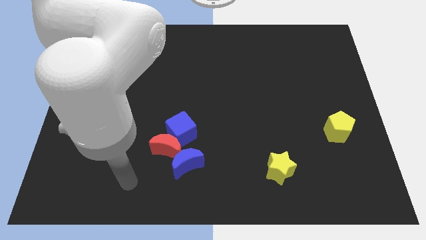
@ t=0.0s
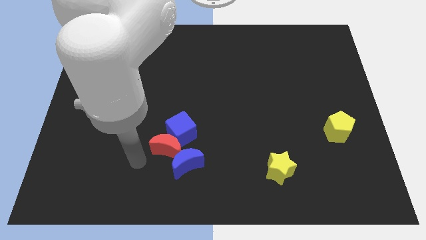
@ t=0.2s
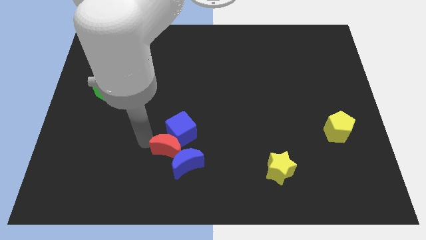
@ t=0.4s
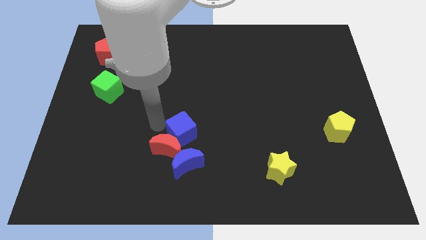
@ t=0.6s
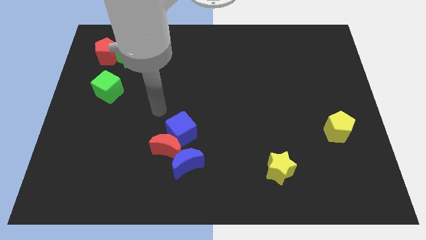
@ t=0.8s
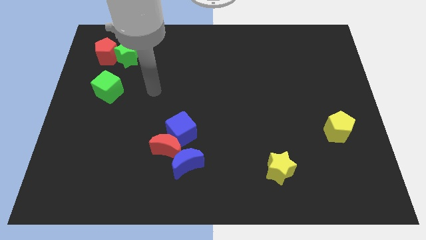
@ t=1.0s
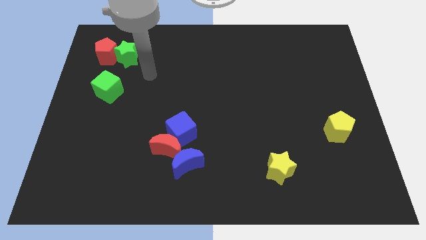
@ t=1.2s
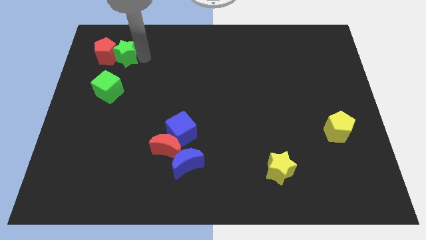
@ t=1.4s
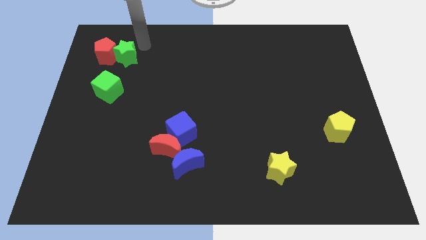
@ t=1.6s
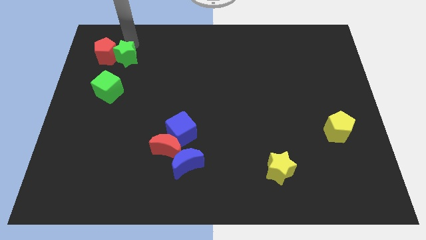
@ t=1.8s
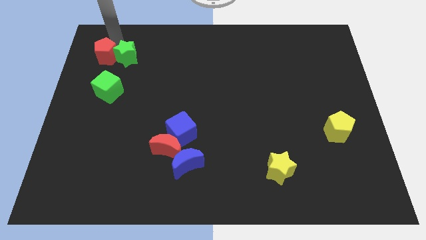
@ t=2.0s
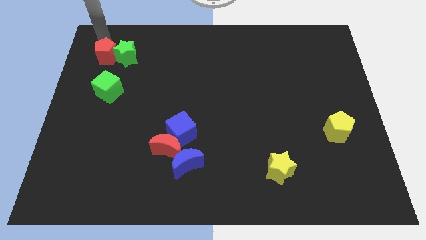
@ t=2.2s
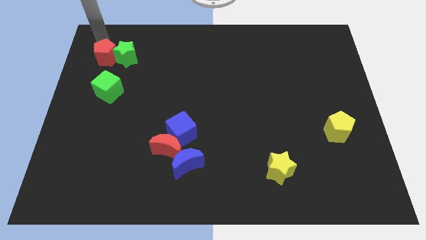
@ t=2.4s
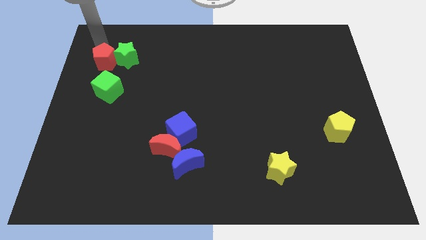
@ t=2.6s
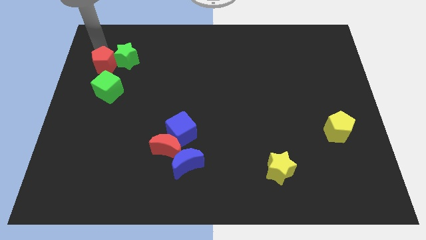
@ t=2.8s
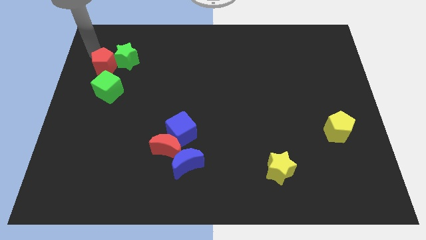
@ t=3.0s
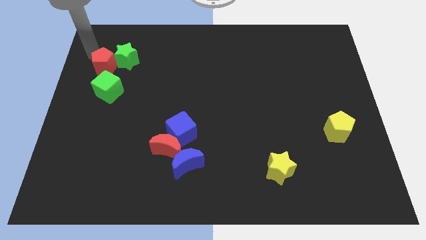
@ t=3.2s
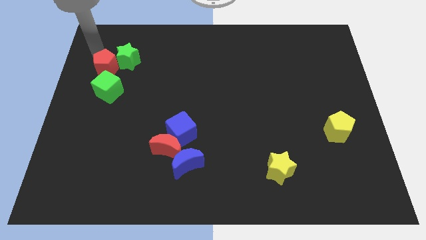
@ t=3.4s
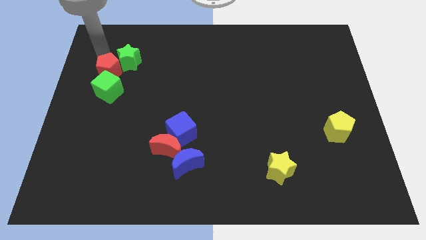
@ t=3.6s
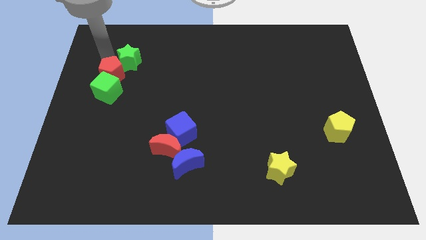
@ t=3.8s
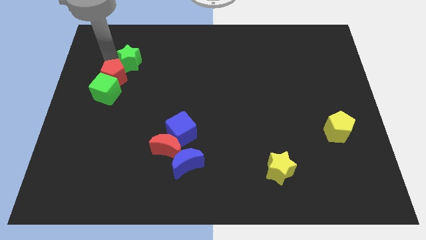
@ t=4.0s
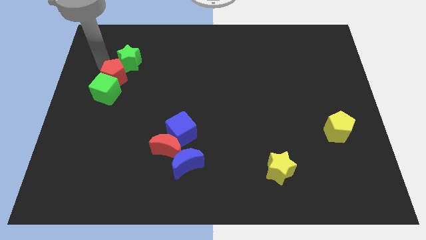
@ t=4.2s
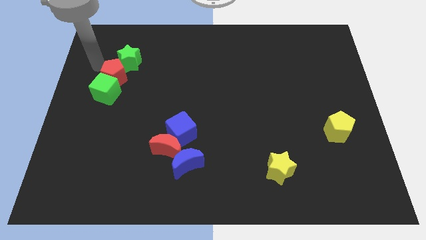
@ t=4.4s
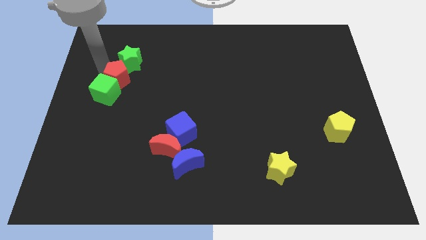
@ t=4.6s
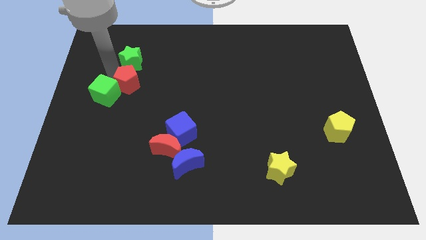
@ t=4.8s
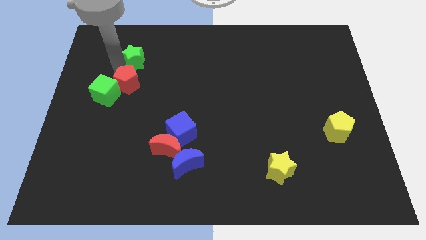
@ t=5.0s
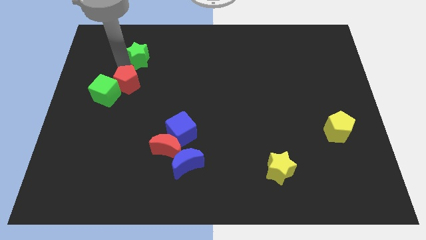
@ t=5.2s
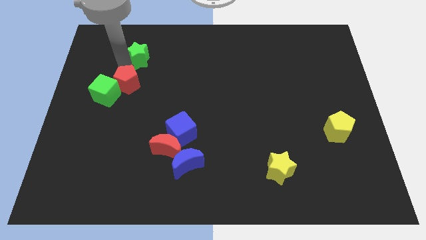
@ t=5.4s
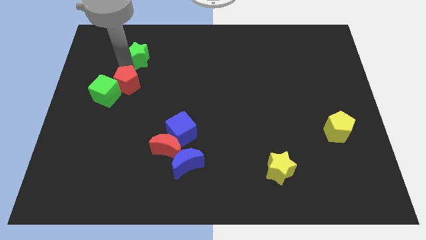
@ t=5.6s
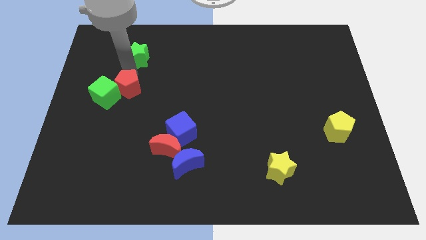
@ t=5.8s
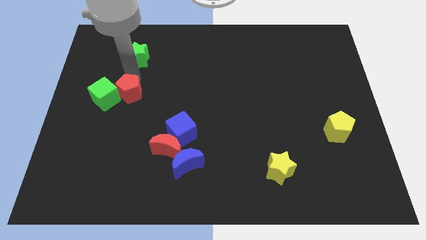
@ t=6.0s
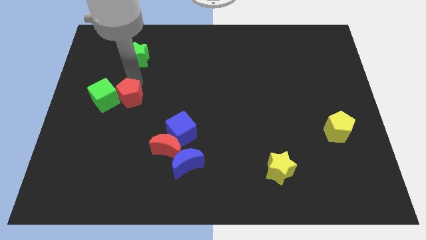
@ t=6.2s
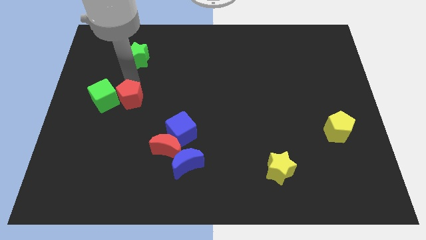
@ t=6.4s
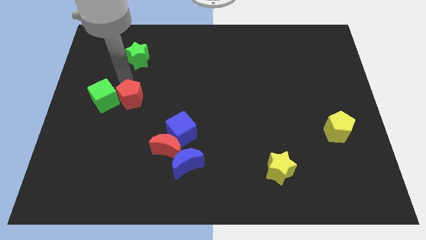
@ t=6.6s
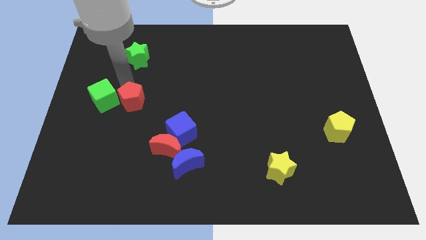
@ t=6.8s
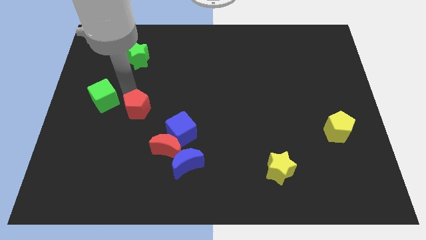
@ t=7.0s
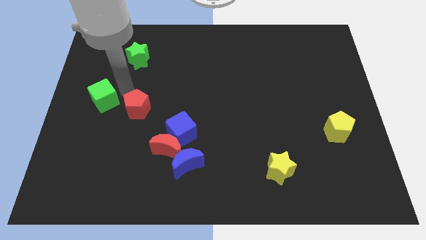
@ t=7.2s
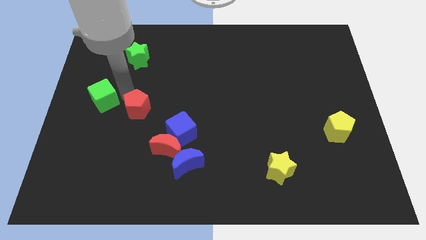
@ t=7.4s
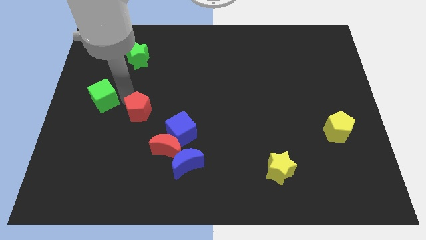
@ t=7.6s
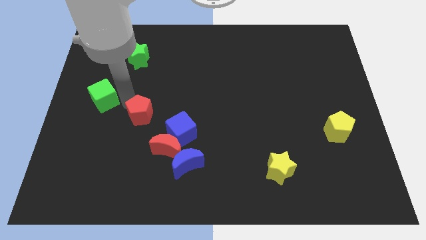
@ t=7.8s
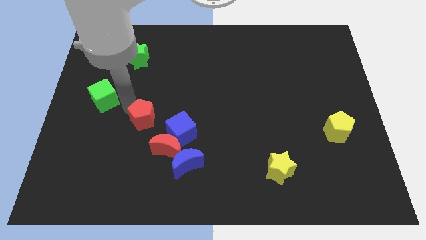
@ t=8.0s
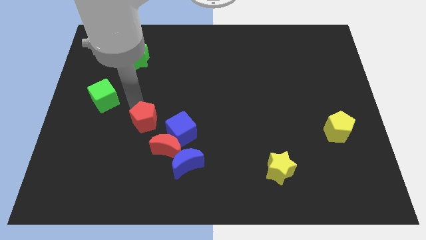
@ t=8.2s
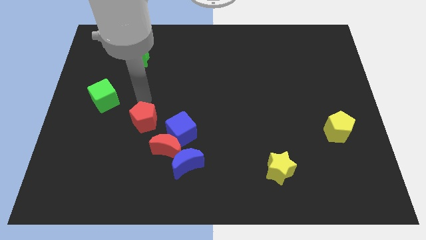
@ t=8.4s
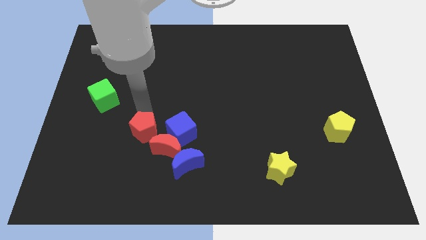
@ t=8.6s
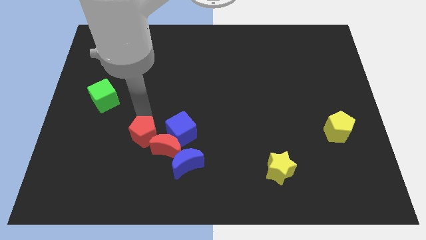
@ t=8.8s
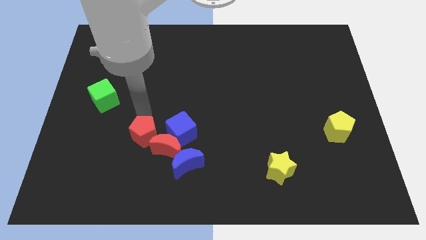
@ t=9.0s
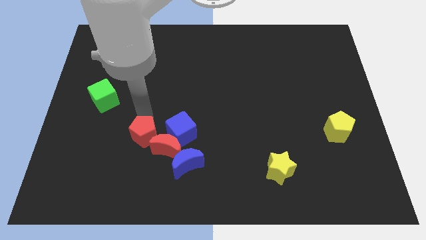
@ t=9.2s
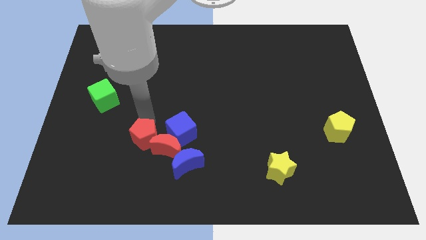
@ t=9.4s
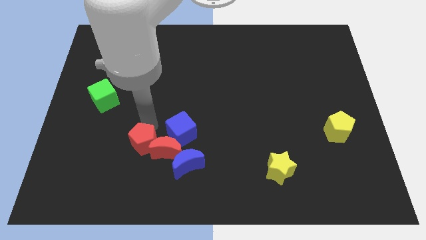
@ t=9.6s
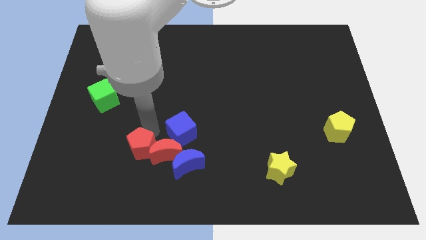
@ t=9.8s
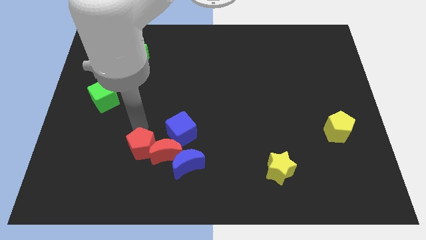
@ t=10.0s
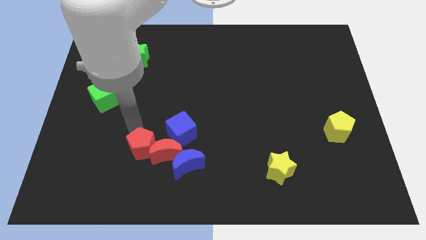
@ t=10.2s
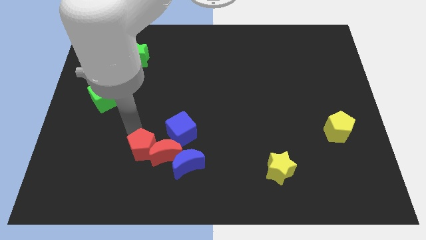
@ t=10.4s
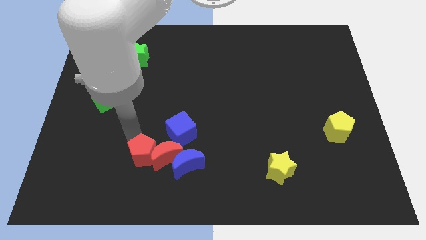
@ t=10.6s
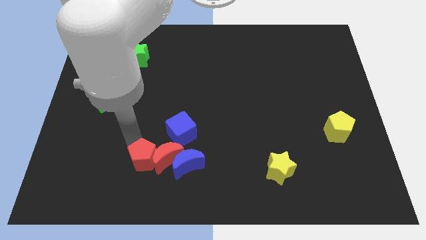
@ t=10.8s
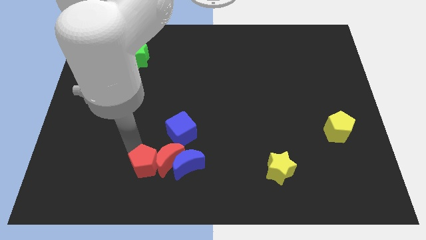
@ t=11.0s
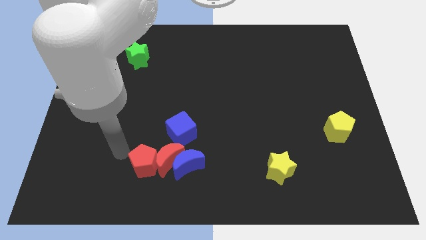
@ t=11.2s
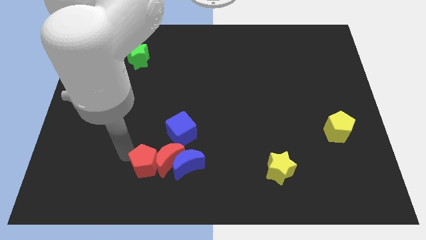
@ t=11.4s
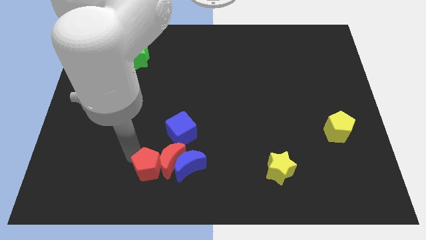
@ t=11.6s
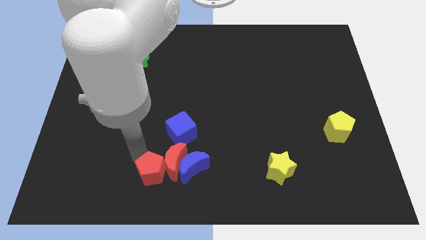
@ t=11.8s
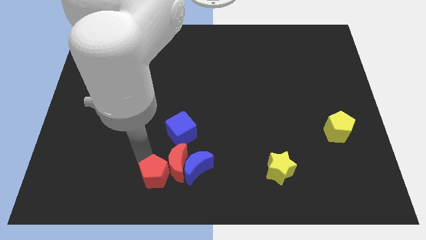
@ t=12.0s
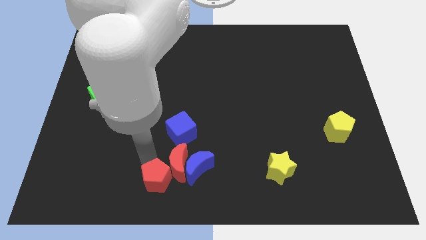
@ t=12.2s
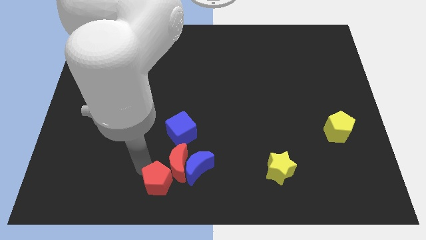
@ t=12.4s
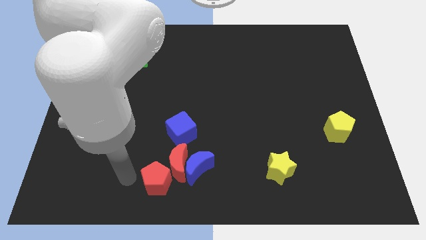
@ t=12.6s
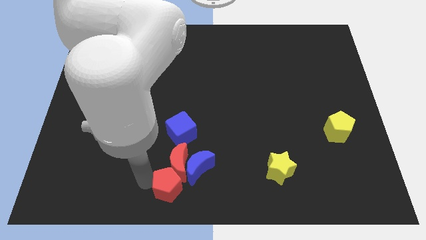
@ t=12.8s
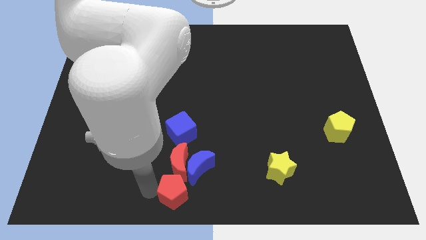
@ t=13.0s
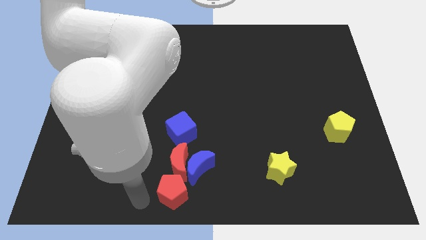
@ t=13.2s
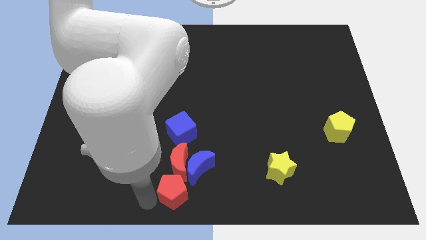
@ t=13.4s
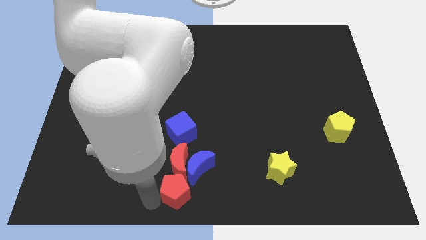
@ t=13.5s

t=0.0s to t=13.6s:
push the red pentagon diagonally down and to the right of the red moon
